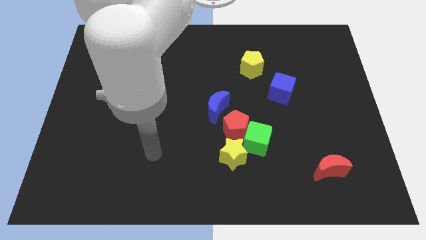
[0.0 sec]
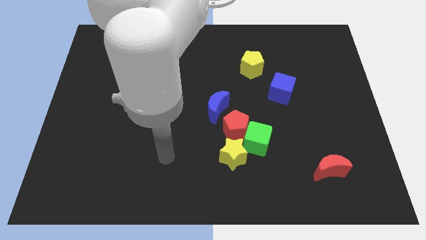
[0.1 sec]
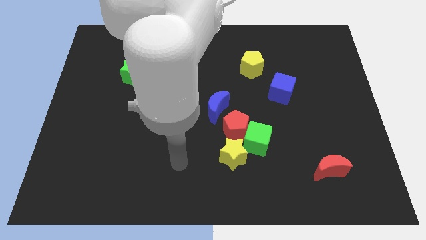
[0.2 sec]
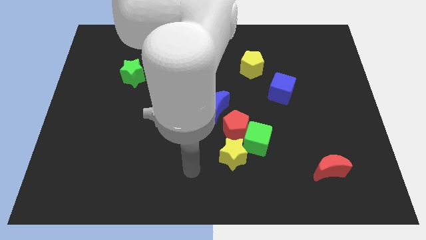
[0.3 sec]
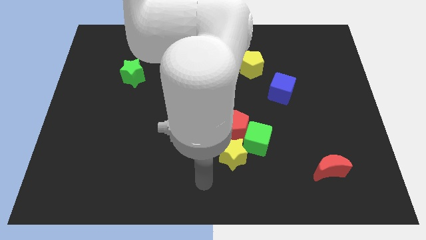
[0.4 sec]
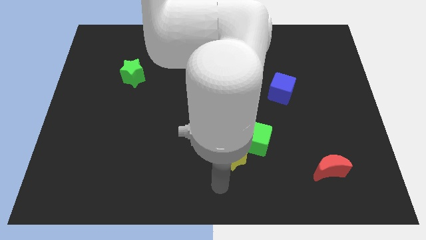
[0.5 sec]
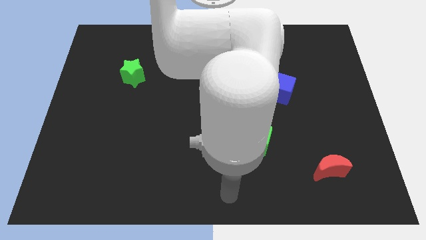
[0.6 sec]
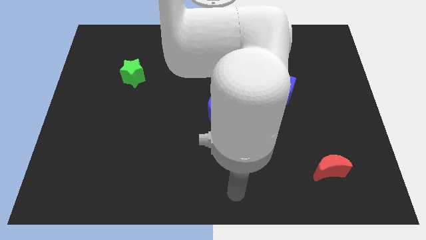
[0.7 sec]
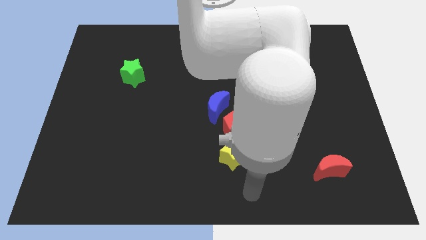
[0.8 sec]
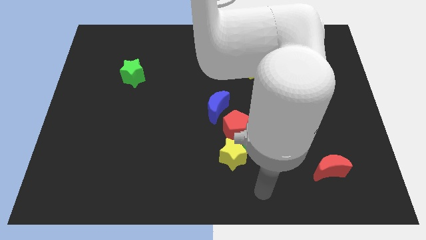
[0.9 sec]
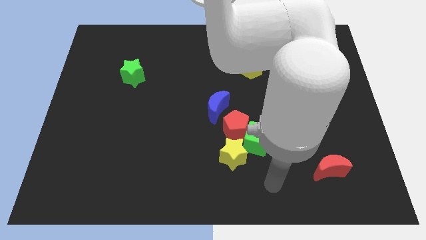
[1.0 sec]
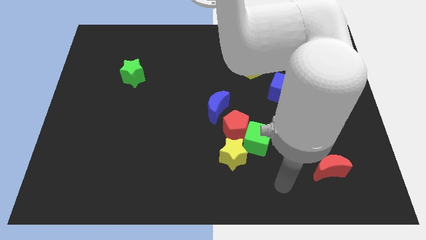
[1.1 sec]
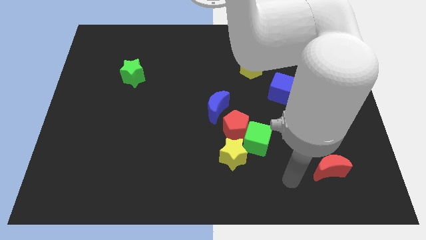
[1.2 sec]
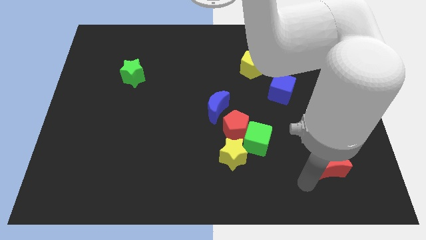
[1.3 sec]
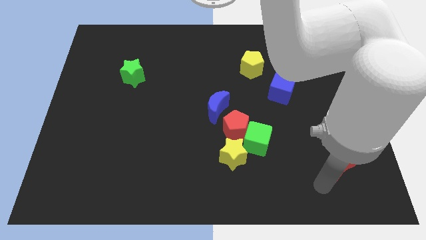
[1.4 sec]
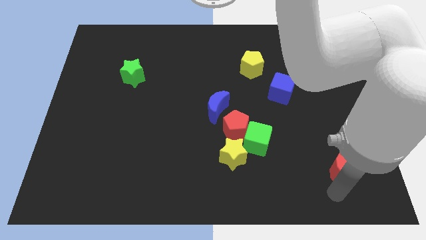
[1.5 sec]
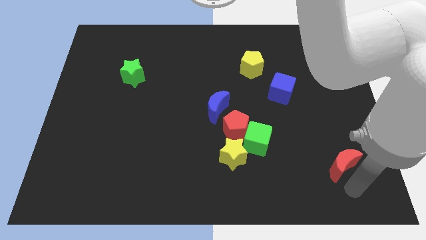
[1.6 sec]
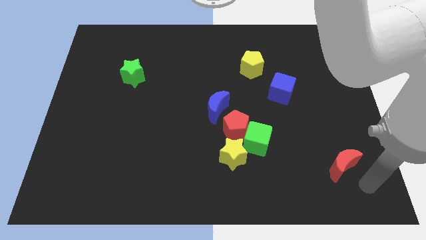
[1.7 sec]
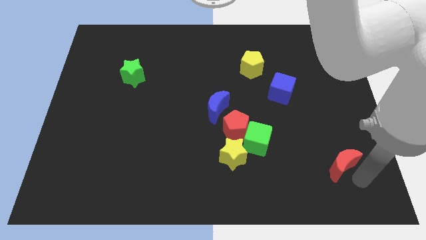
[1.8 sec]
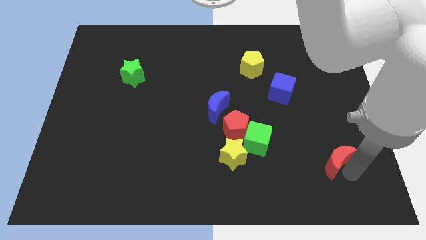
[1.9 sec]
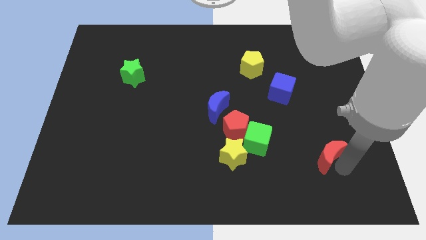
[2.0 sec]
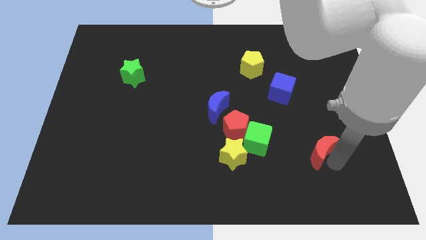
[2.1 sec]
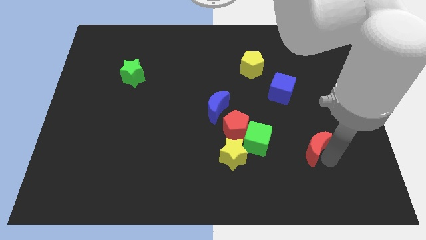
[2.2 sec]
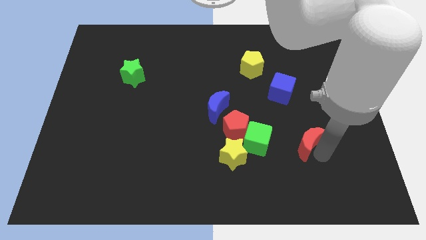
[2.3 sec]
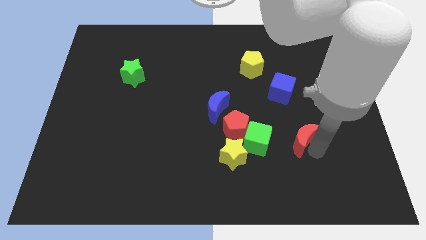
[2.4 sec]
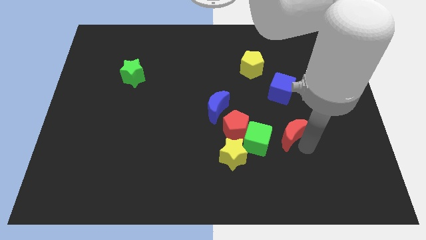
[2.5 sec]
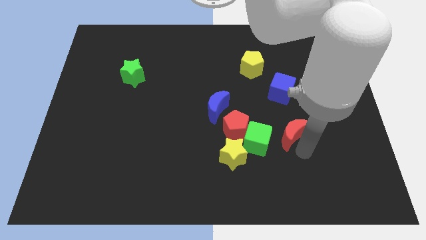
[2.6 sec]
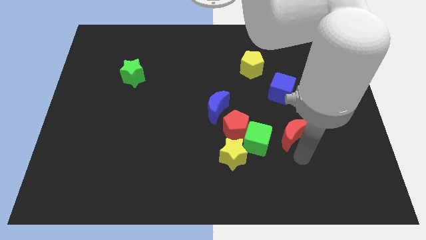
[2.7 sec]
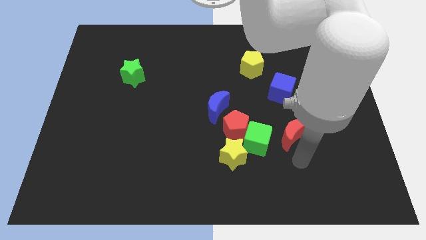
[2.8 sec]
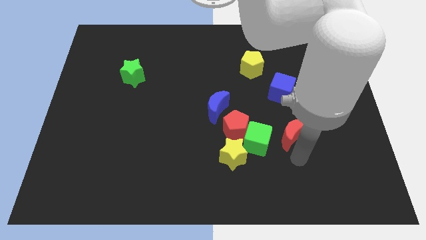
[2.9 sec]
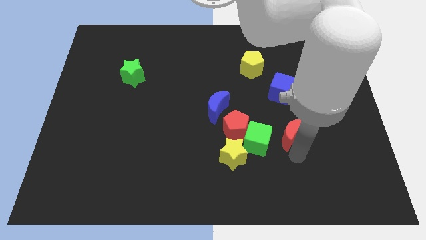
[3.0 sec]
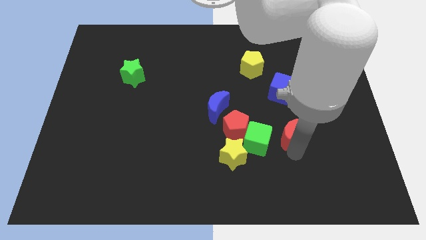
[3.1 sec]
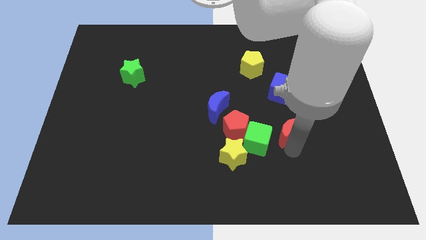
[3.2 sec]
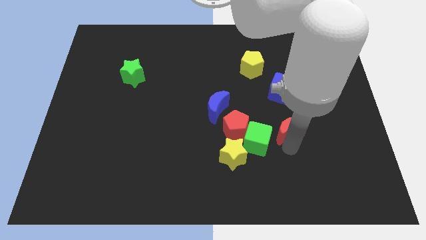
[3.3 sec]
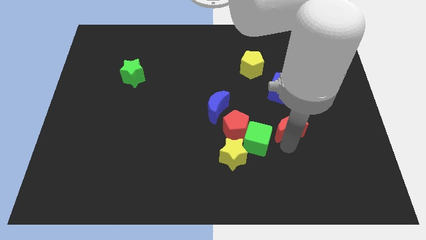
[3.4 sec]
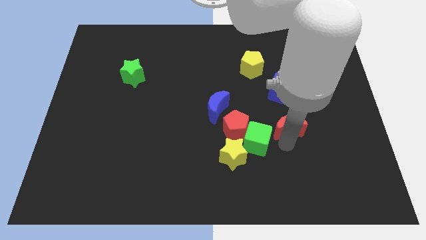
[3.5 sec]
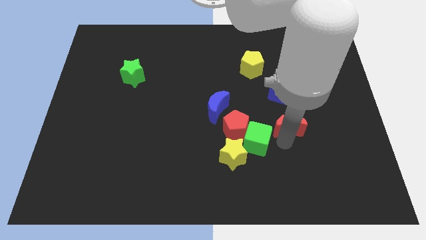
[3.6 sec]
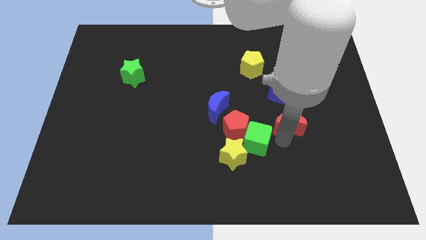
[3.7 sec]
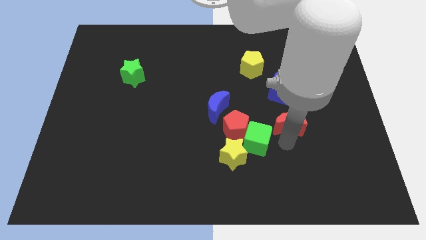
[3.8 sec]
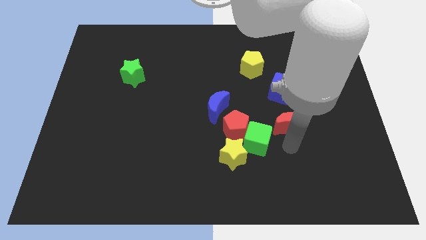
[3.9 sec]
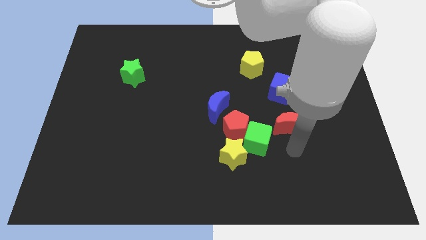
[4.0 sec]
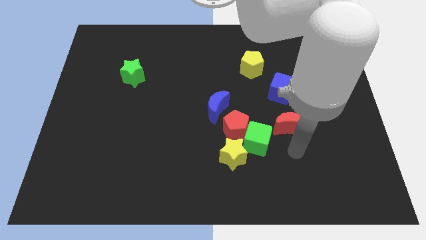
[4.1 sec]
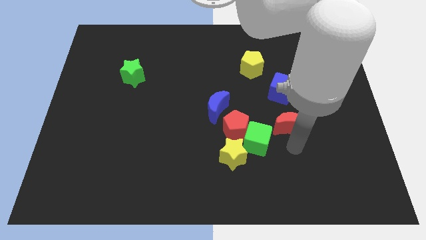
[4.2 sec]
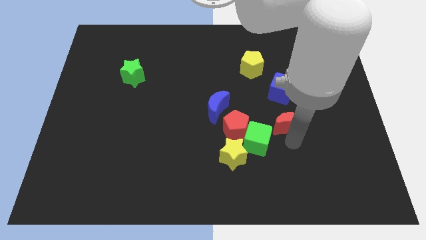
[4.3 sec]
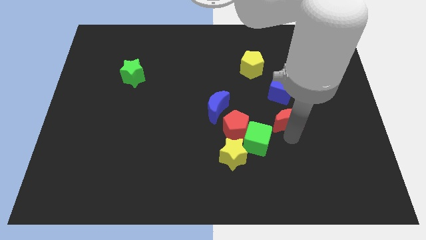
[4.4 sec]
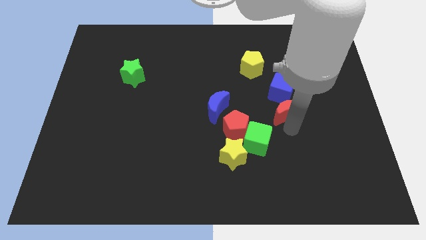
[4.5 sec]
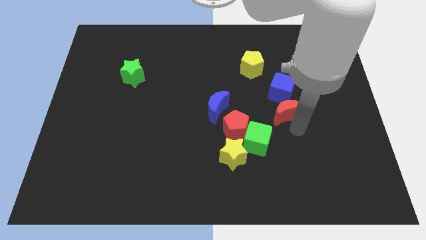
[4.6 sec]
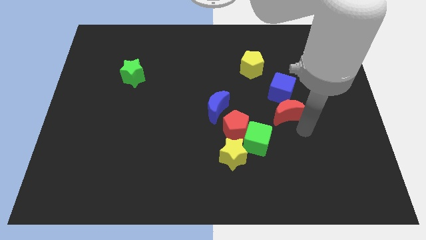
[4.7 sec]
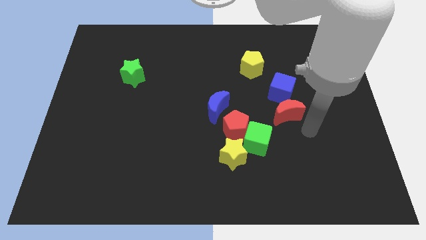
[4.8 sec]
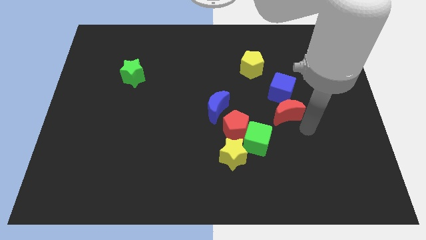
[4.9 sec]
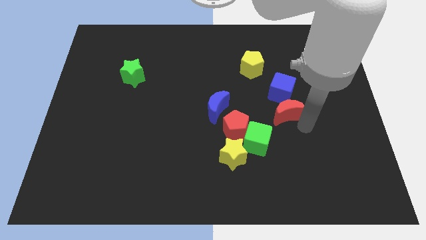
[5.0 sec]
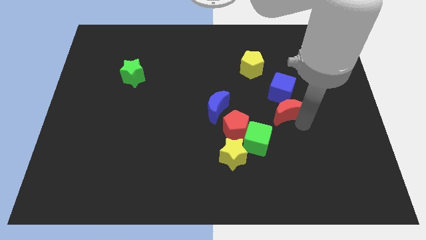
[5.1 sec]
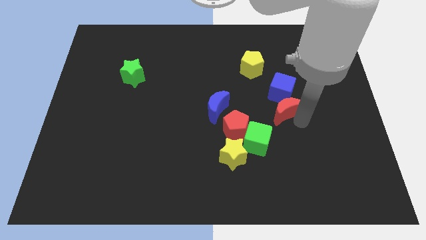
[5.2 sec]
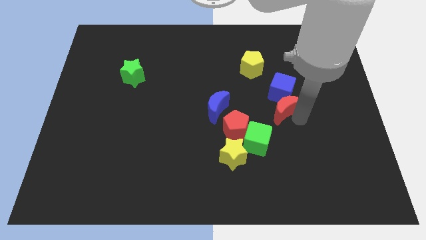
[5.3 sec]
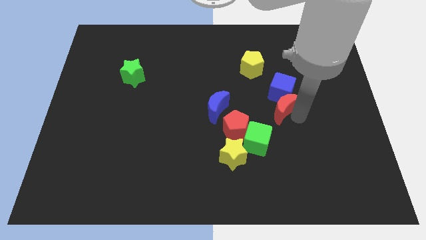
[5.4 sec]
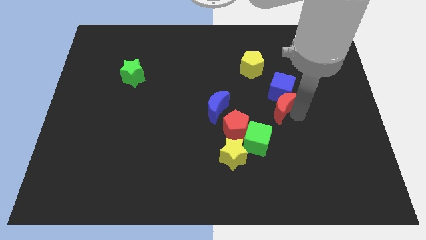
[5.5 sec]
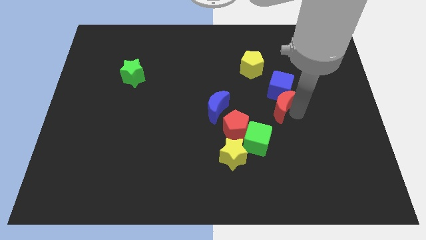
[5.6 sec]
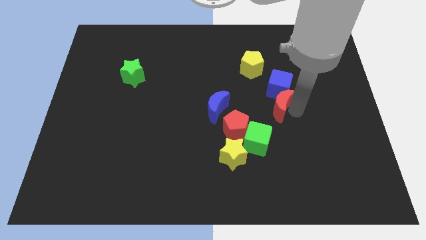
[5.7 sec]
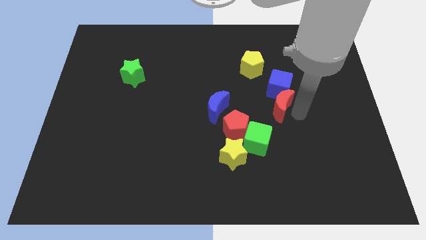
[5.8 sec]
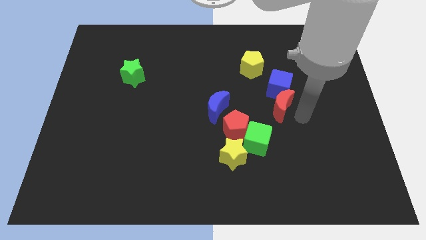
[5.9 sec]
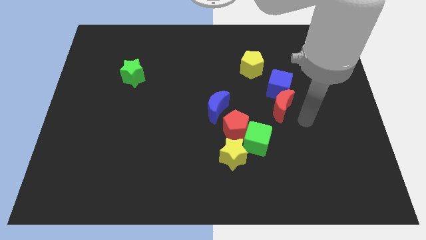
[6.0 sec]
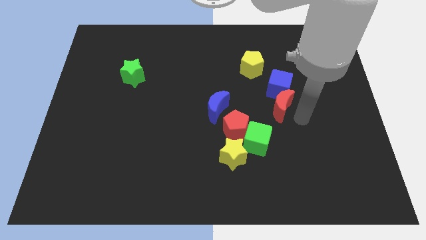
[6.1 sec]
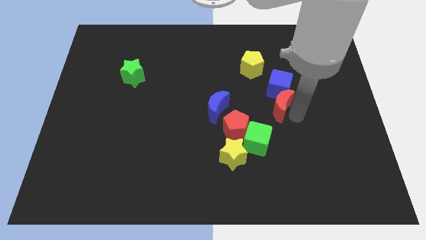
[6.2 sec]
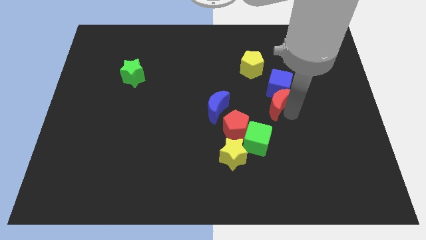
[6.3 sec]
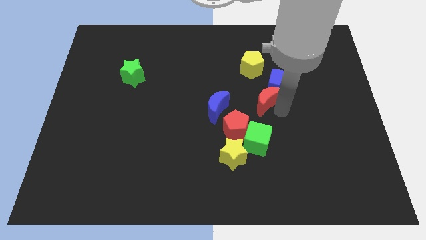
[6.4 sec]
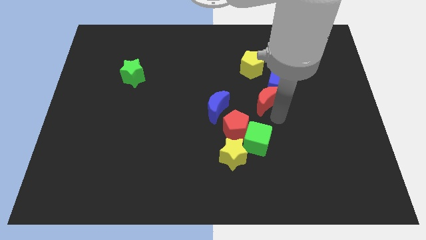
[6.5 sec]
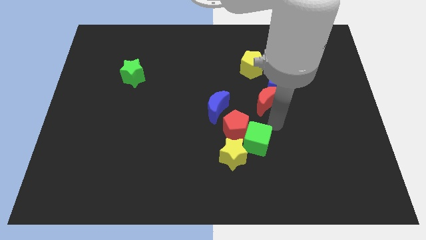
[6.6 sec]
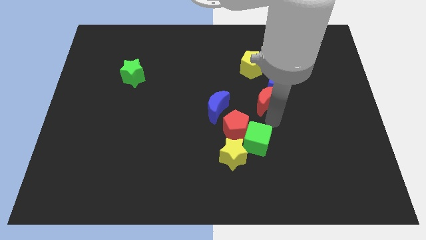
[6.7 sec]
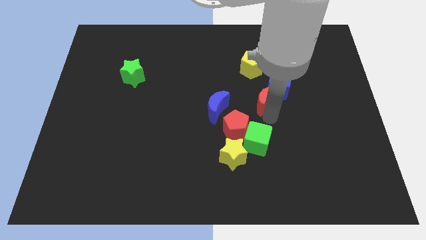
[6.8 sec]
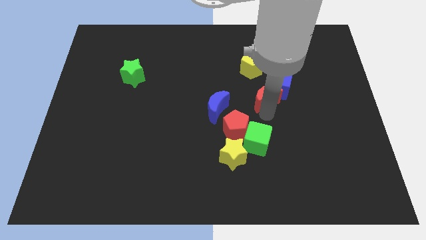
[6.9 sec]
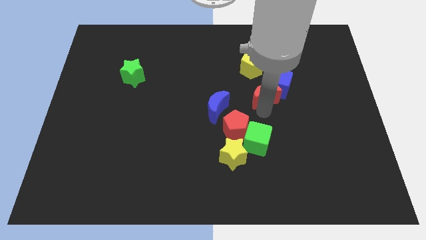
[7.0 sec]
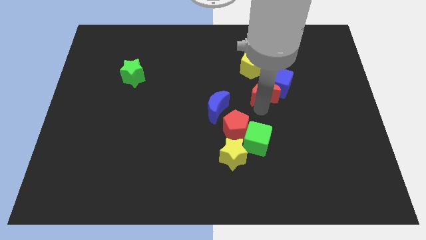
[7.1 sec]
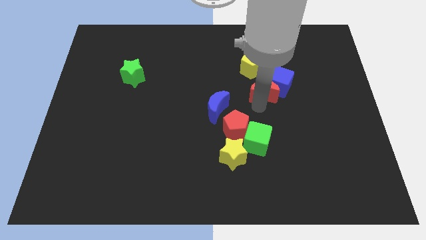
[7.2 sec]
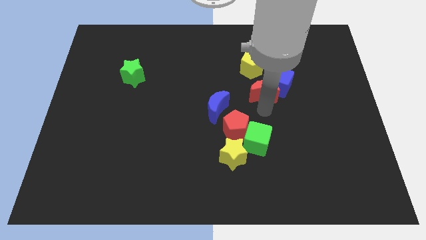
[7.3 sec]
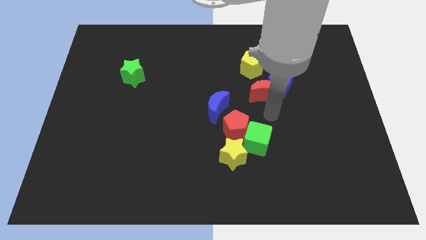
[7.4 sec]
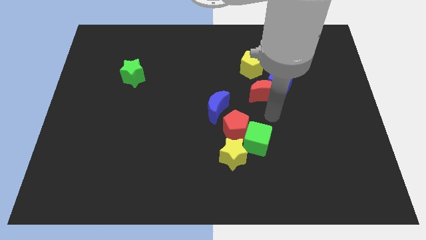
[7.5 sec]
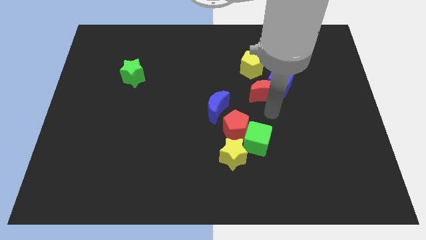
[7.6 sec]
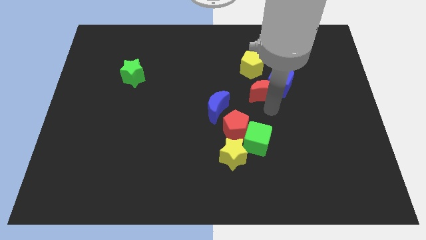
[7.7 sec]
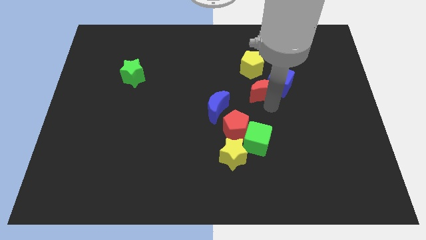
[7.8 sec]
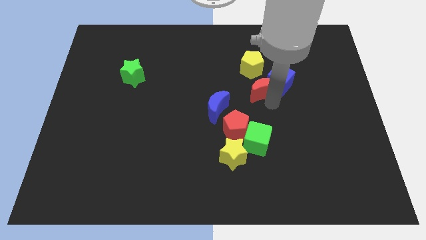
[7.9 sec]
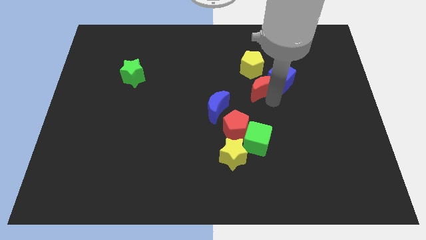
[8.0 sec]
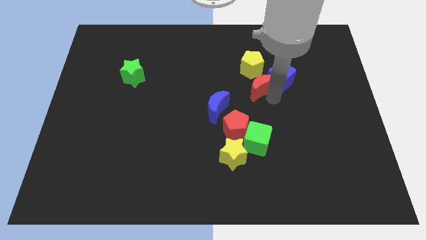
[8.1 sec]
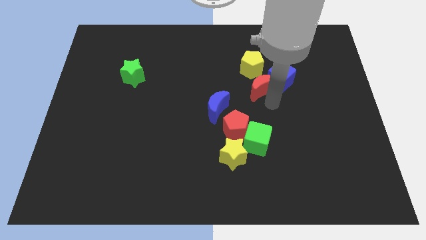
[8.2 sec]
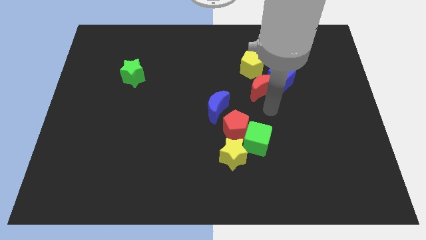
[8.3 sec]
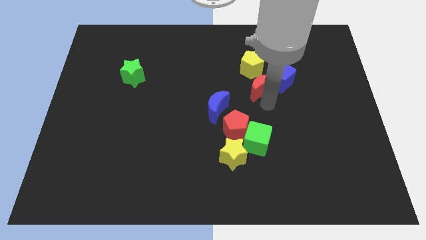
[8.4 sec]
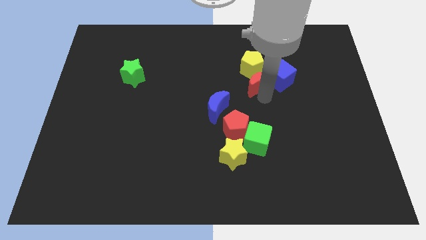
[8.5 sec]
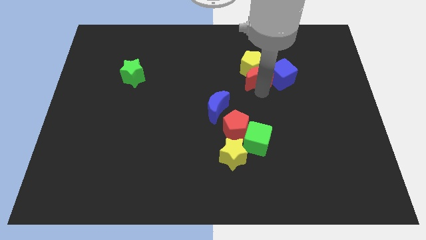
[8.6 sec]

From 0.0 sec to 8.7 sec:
move the red moon next to the yellow pentagon
